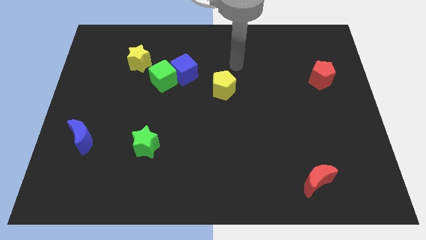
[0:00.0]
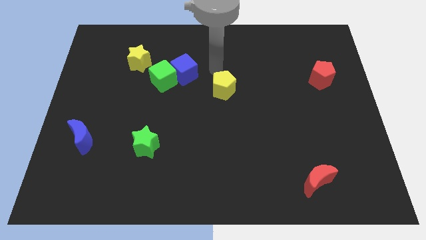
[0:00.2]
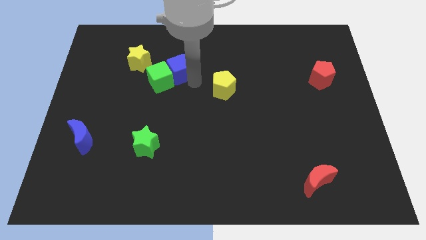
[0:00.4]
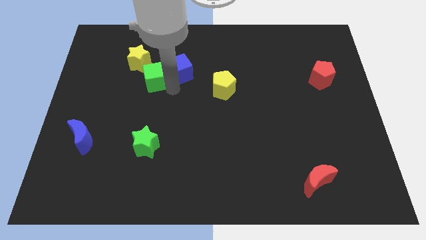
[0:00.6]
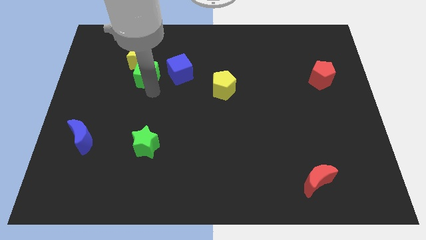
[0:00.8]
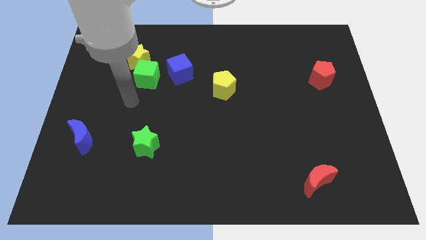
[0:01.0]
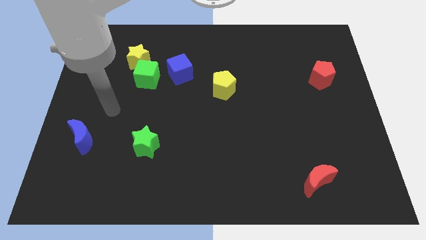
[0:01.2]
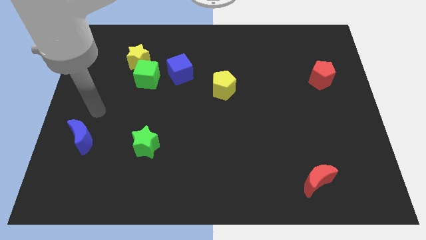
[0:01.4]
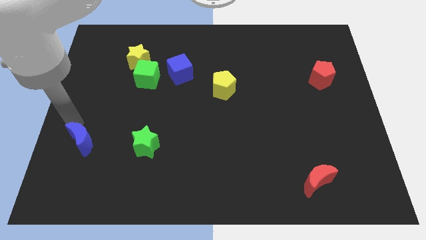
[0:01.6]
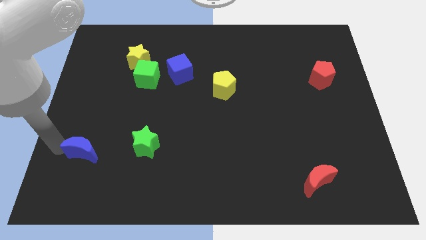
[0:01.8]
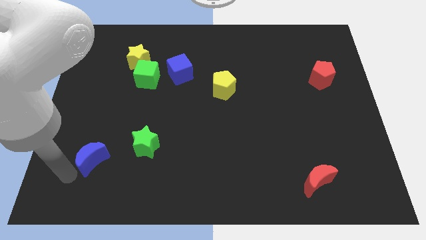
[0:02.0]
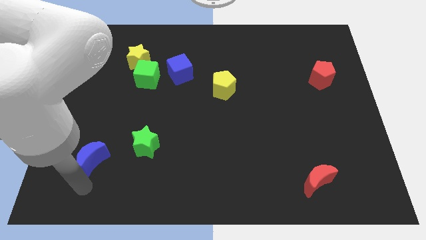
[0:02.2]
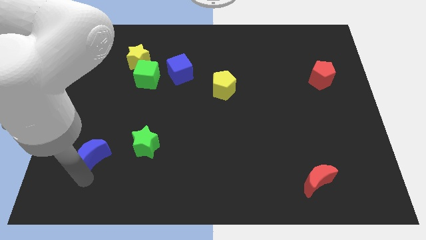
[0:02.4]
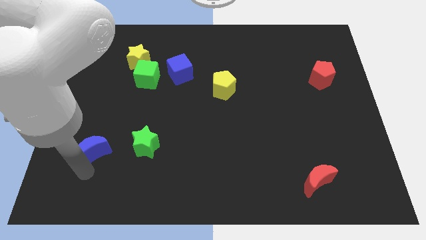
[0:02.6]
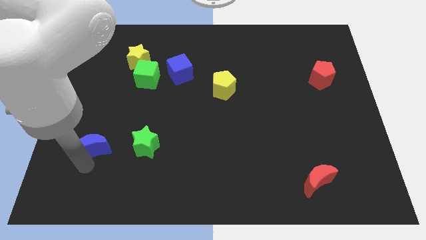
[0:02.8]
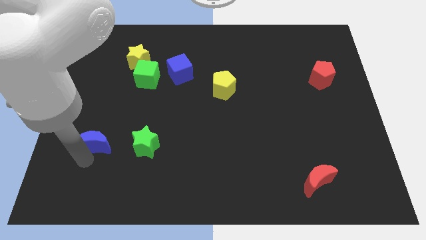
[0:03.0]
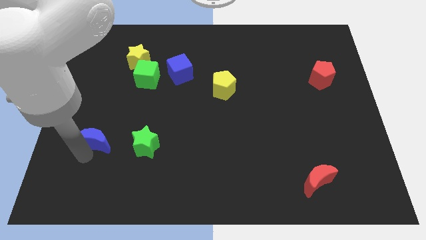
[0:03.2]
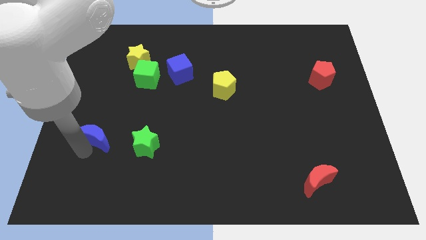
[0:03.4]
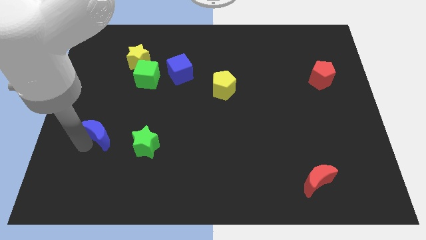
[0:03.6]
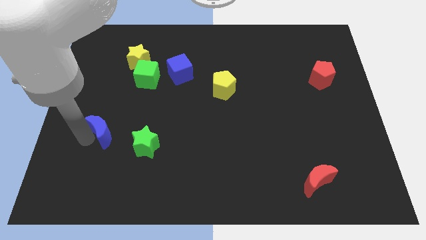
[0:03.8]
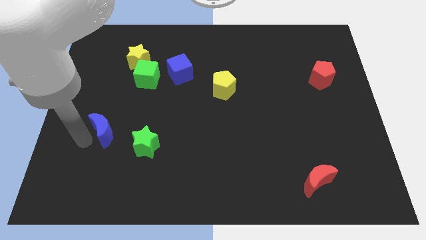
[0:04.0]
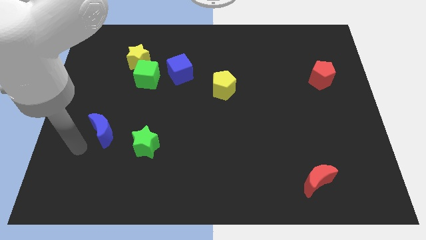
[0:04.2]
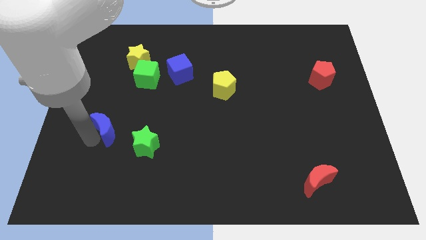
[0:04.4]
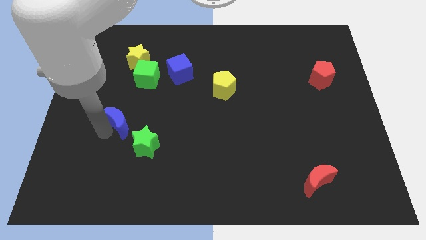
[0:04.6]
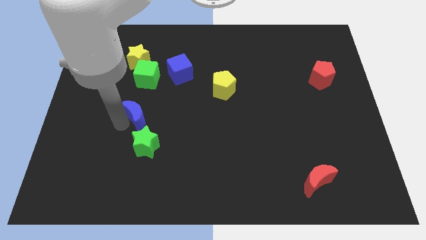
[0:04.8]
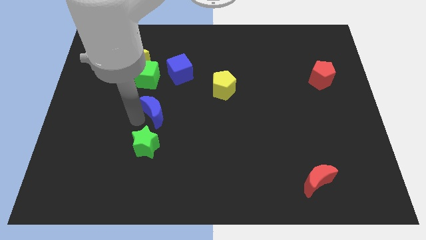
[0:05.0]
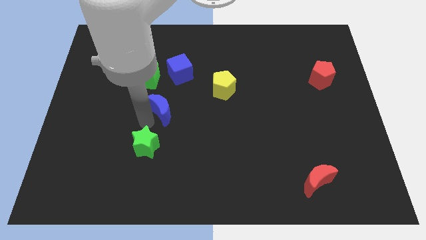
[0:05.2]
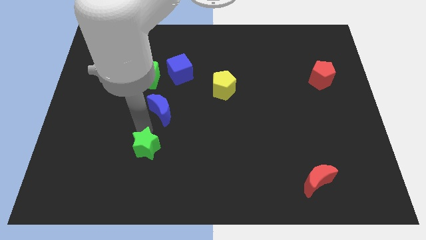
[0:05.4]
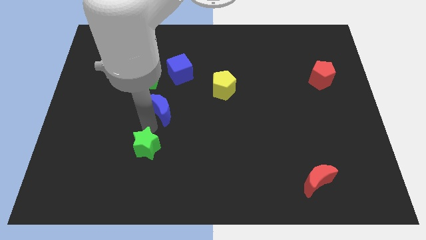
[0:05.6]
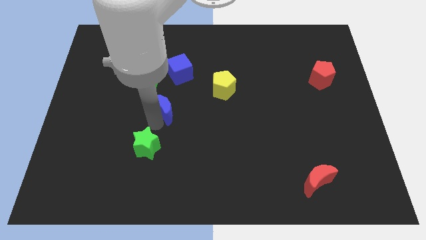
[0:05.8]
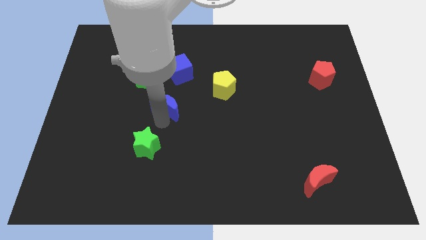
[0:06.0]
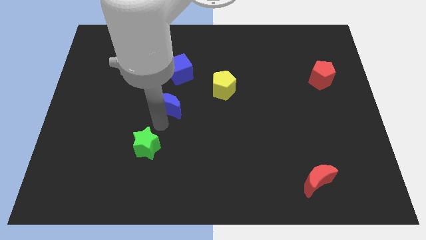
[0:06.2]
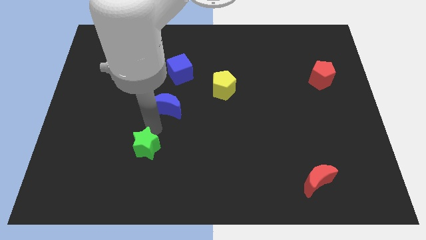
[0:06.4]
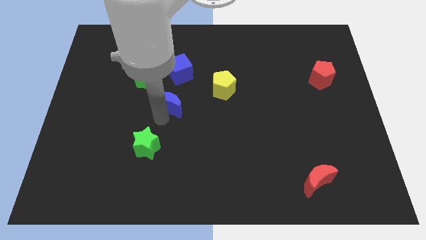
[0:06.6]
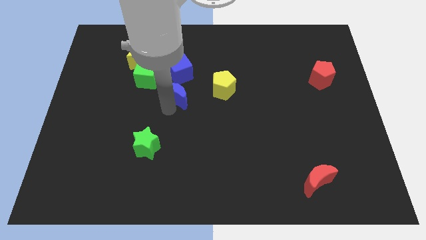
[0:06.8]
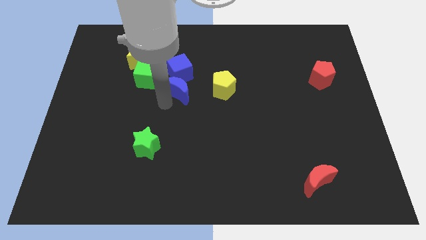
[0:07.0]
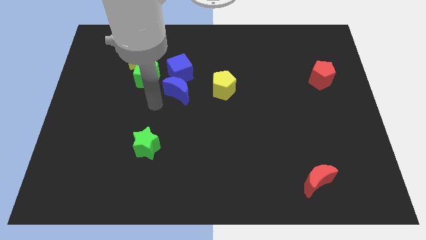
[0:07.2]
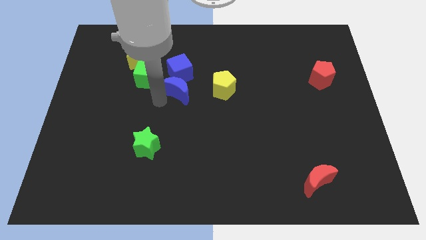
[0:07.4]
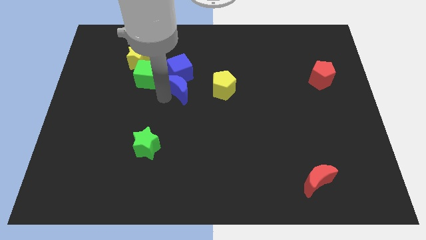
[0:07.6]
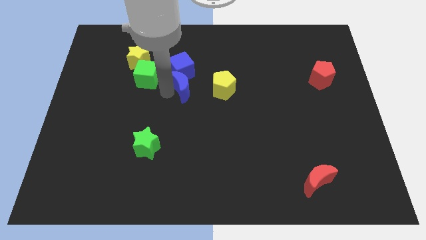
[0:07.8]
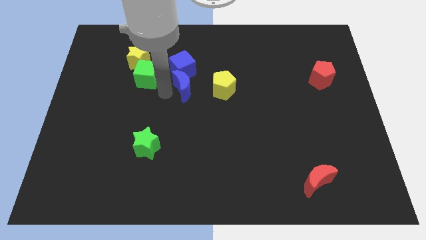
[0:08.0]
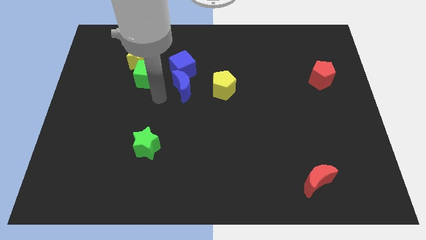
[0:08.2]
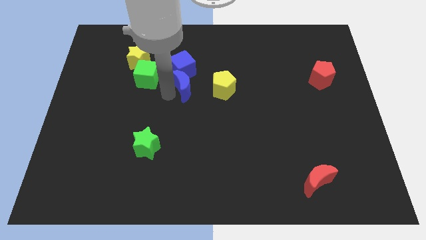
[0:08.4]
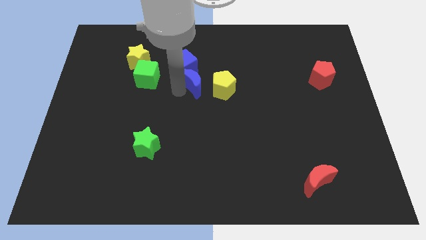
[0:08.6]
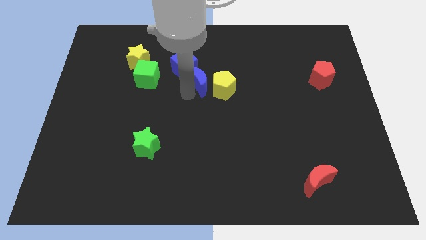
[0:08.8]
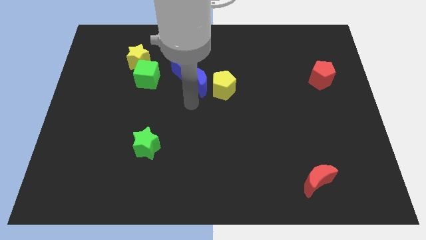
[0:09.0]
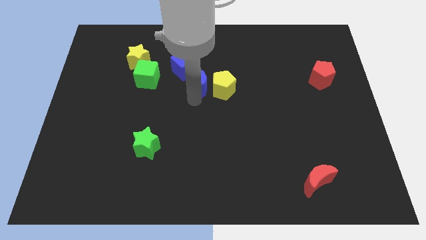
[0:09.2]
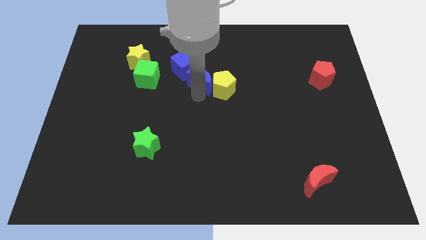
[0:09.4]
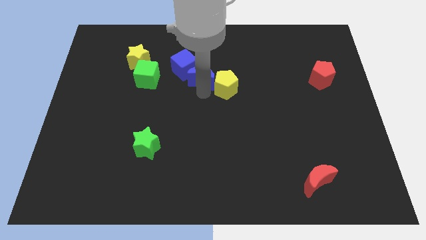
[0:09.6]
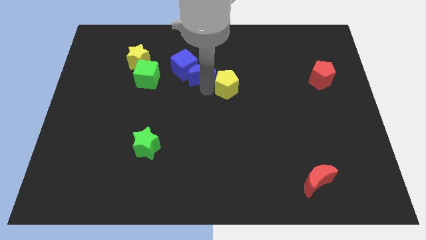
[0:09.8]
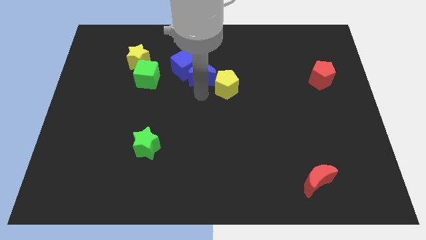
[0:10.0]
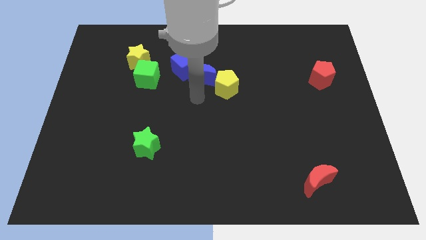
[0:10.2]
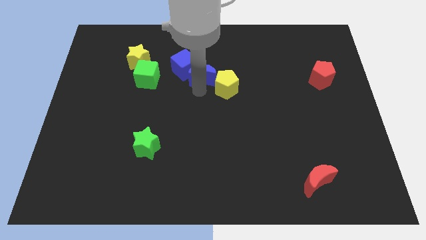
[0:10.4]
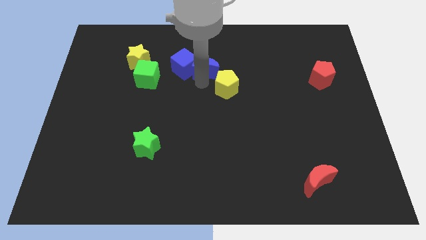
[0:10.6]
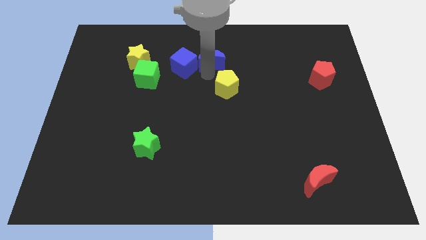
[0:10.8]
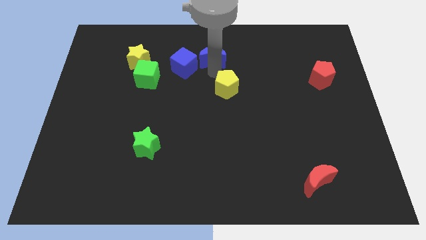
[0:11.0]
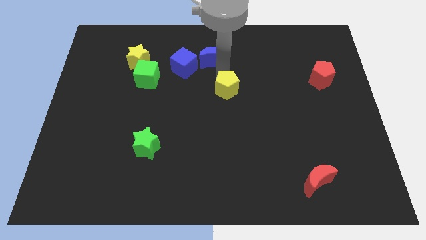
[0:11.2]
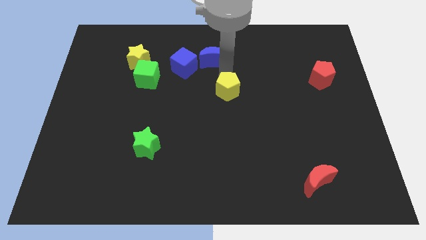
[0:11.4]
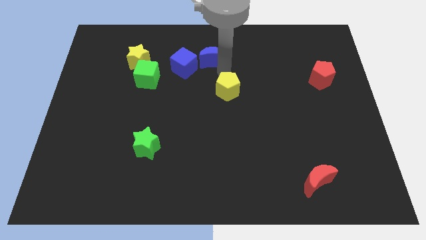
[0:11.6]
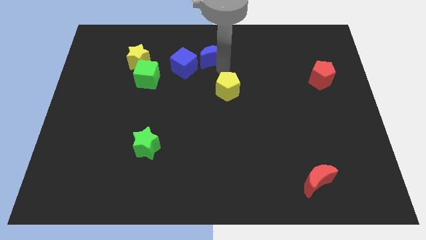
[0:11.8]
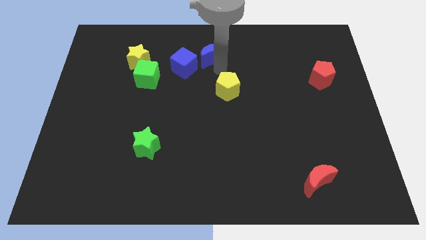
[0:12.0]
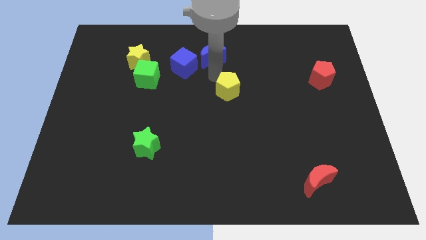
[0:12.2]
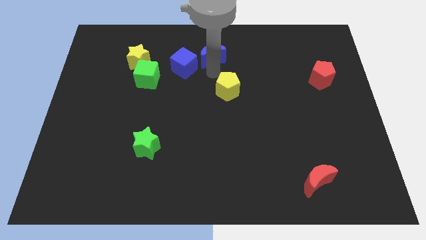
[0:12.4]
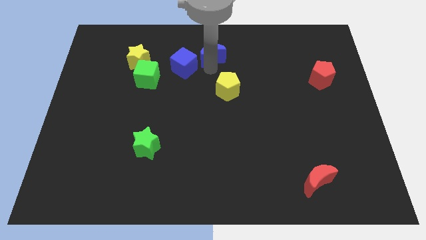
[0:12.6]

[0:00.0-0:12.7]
move the blue moon to the top
